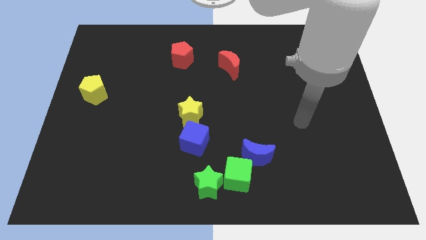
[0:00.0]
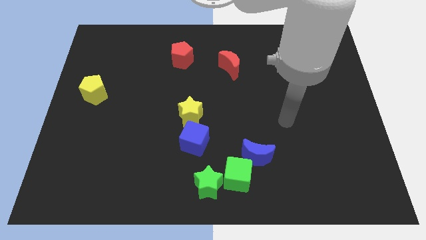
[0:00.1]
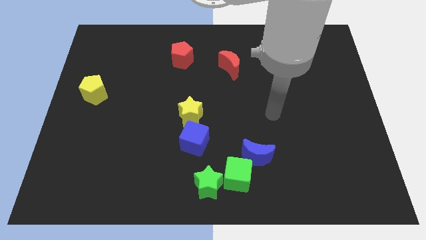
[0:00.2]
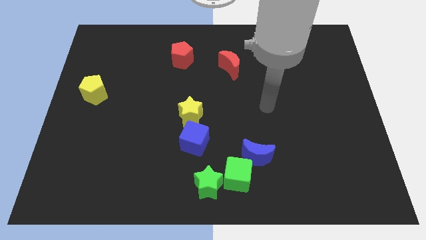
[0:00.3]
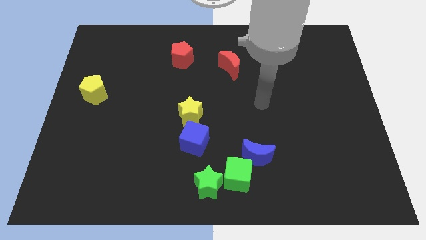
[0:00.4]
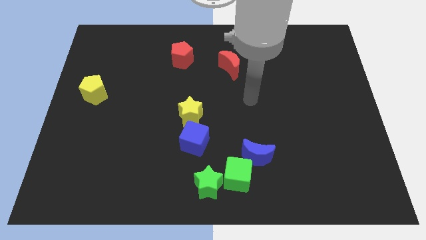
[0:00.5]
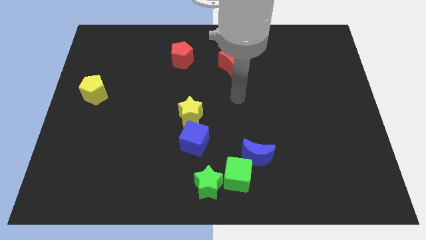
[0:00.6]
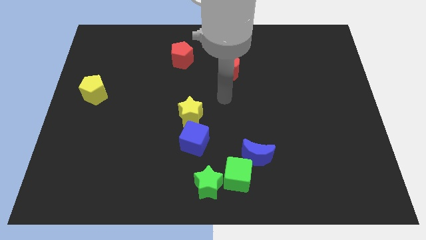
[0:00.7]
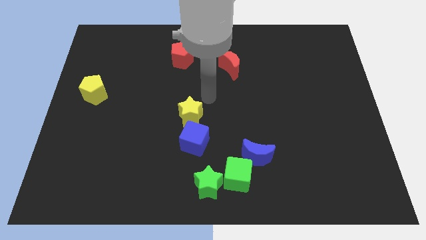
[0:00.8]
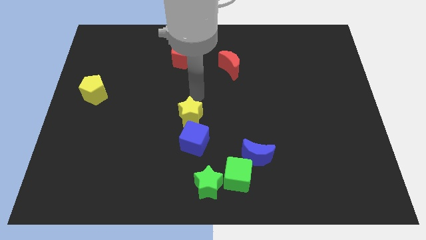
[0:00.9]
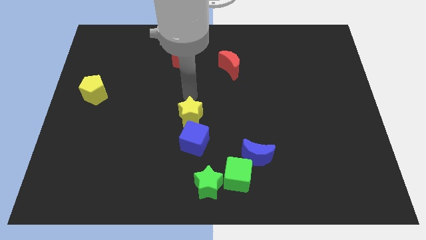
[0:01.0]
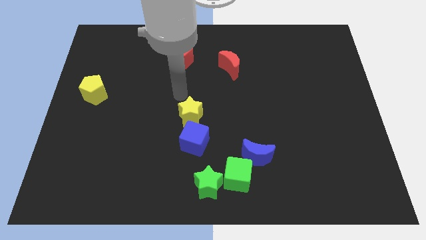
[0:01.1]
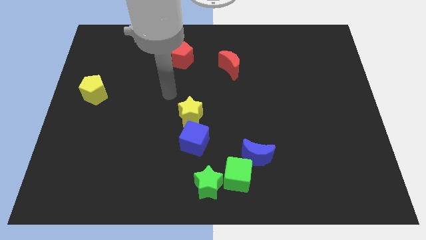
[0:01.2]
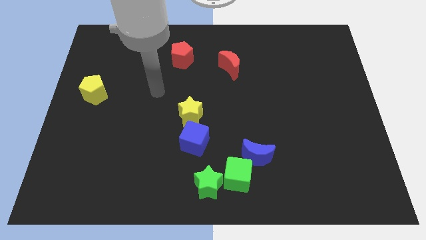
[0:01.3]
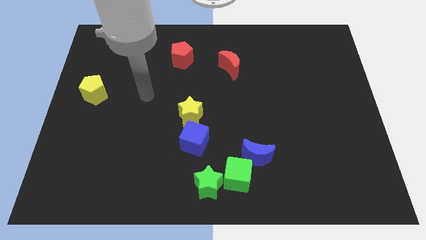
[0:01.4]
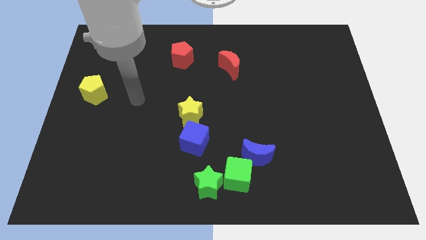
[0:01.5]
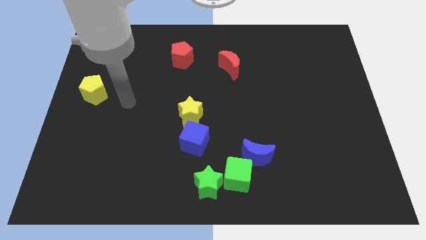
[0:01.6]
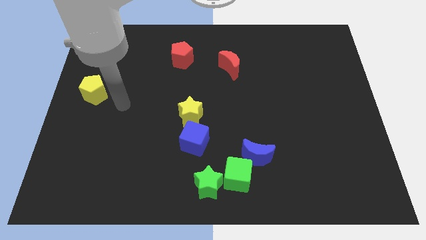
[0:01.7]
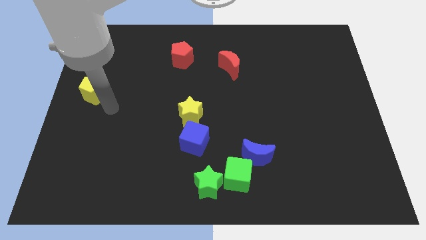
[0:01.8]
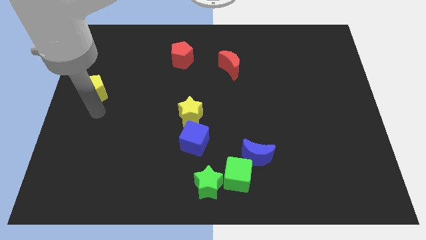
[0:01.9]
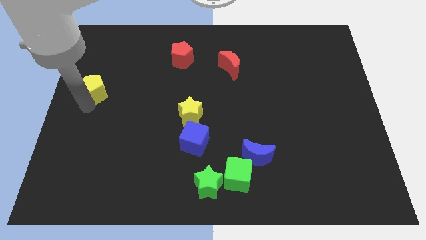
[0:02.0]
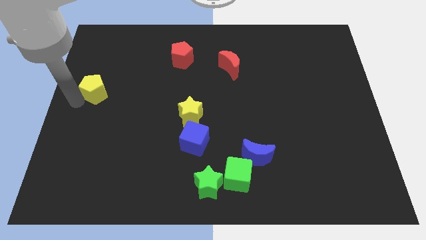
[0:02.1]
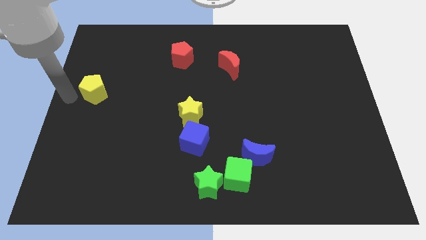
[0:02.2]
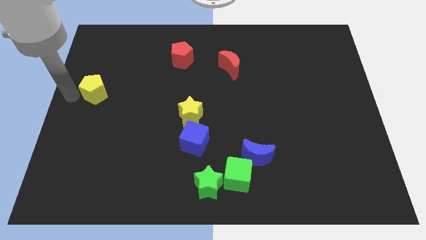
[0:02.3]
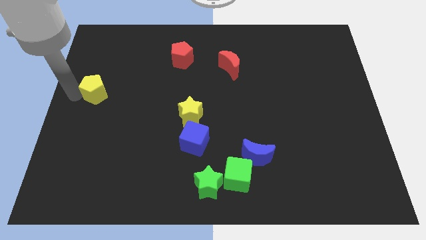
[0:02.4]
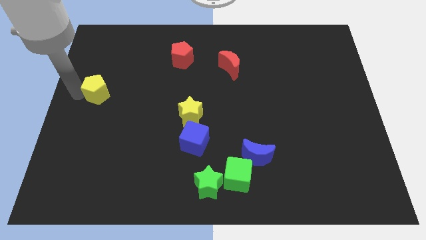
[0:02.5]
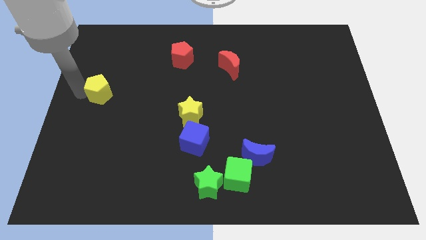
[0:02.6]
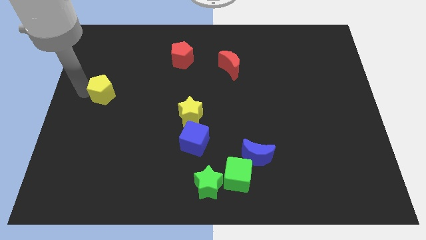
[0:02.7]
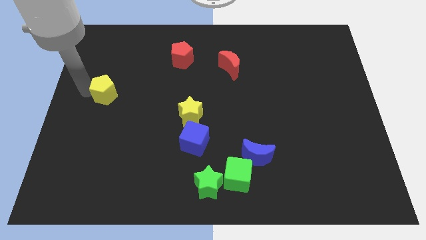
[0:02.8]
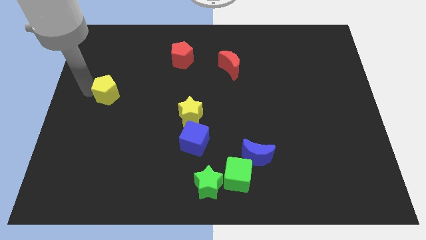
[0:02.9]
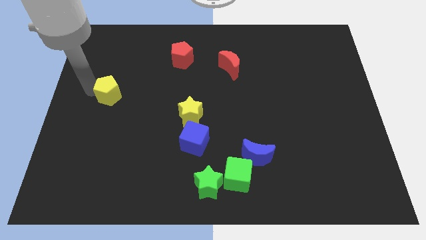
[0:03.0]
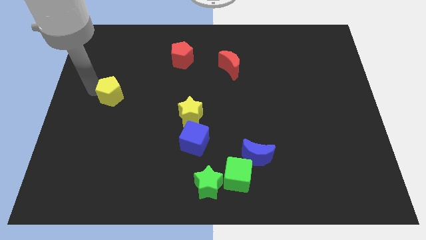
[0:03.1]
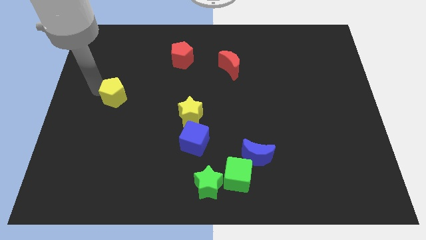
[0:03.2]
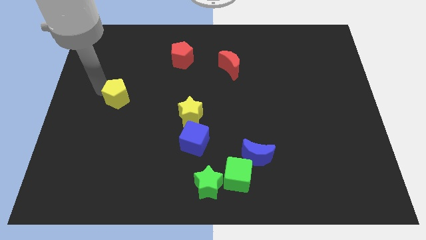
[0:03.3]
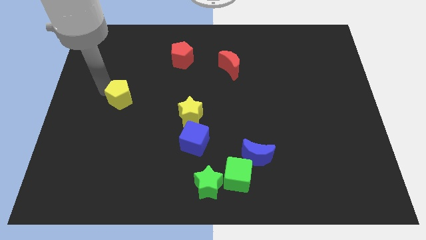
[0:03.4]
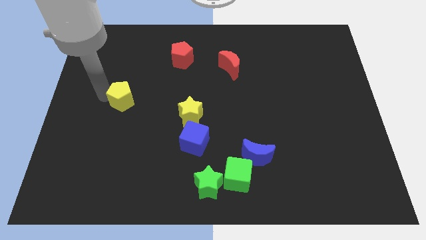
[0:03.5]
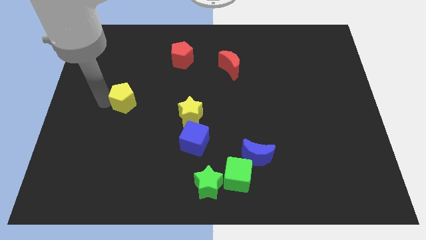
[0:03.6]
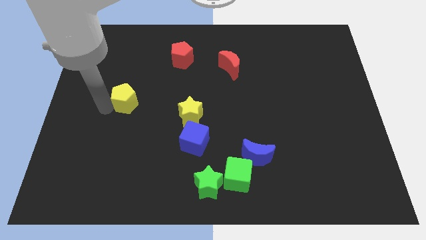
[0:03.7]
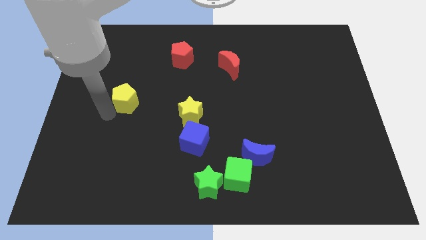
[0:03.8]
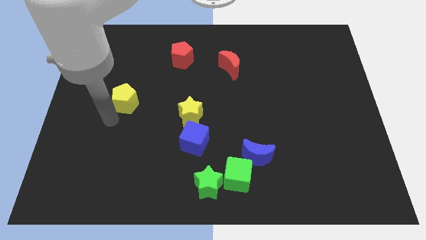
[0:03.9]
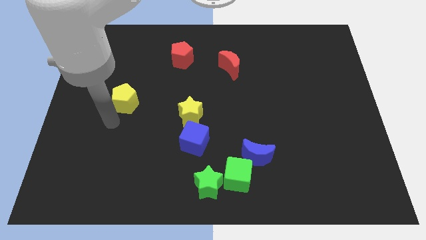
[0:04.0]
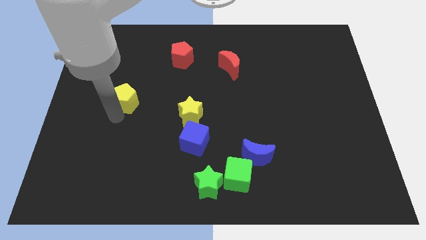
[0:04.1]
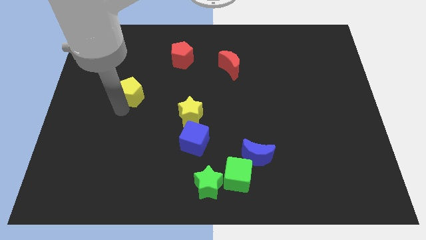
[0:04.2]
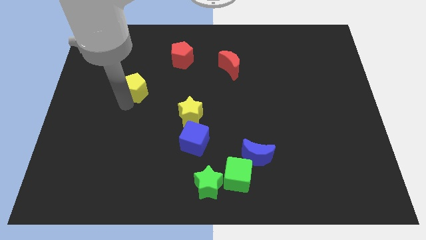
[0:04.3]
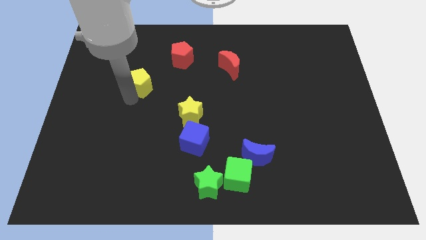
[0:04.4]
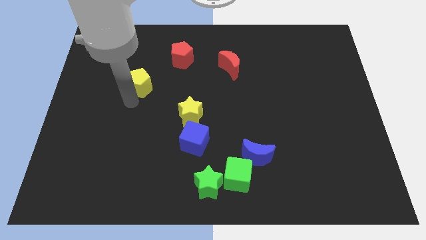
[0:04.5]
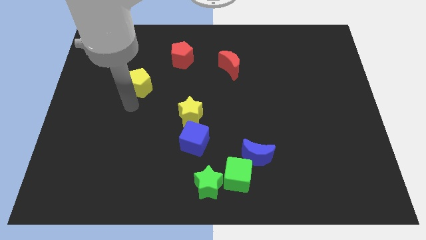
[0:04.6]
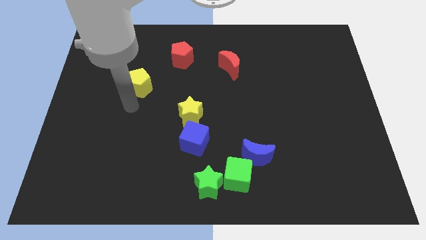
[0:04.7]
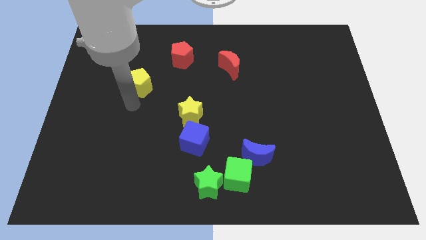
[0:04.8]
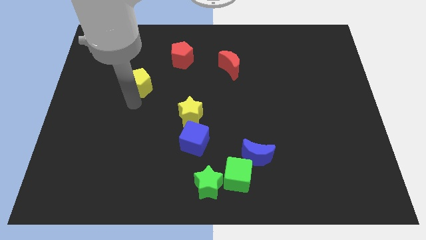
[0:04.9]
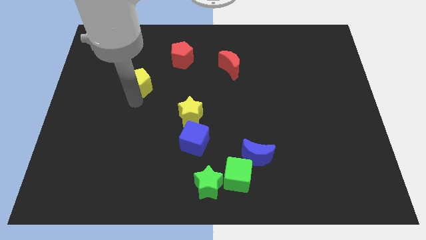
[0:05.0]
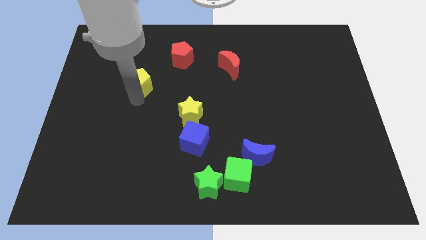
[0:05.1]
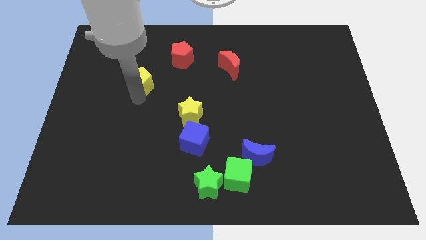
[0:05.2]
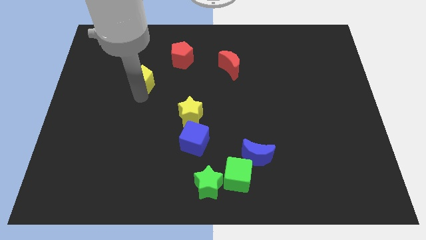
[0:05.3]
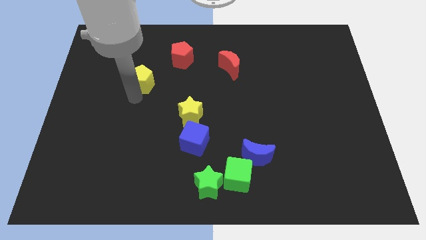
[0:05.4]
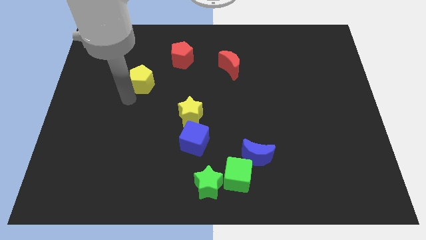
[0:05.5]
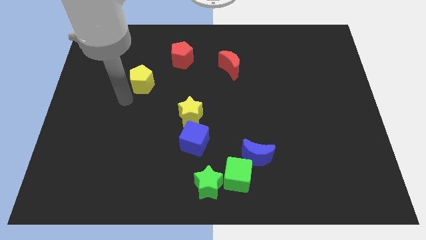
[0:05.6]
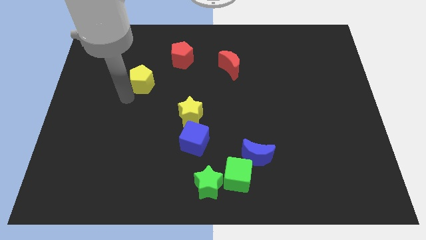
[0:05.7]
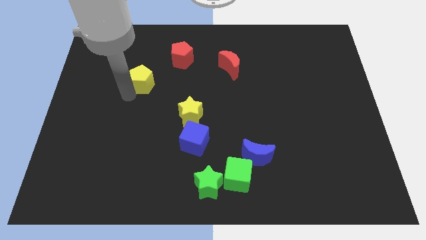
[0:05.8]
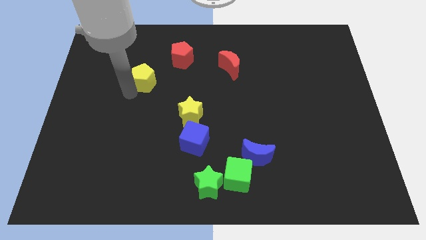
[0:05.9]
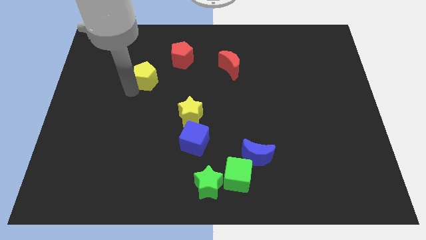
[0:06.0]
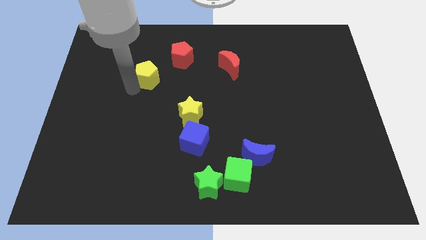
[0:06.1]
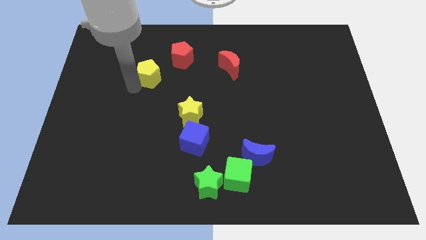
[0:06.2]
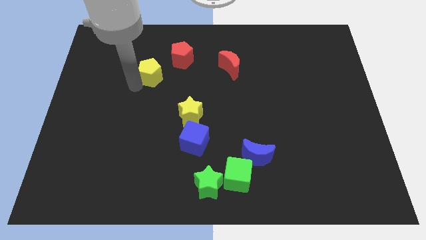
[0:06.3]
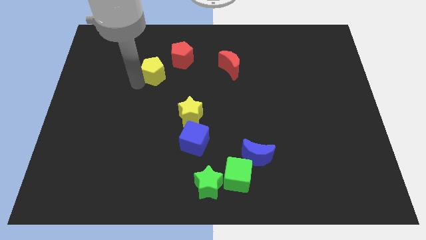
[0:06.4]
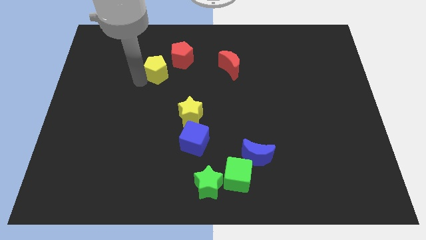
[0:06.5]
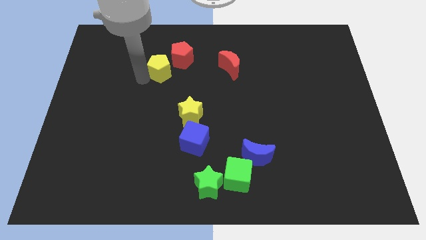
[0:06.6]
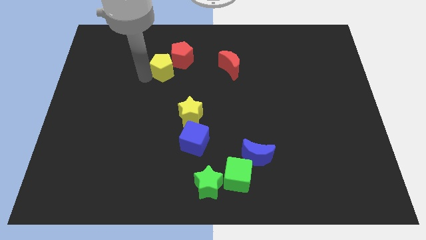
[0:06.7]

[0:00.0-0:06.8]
put the yellow pentagon towards the red pentagon
